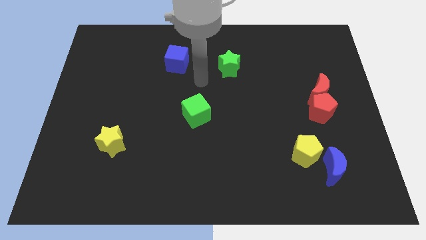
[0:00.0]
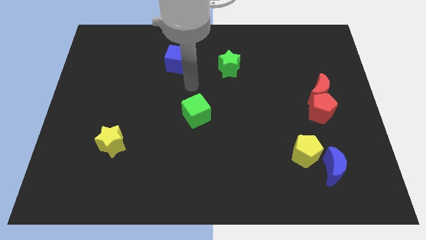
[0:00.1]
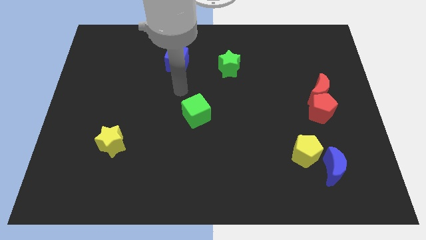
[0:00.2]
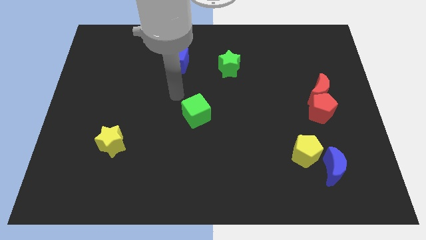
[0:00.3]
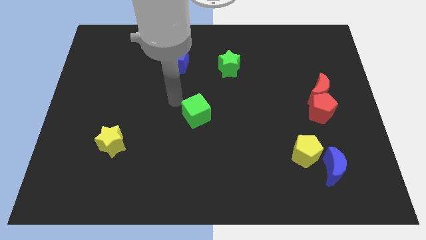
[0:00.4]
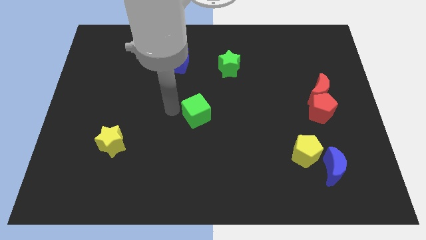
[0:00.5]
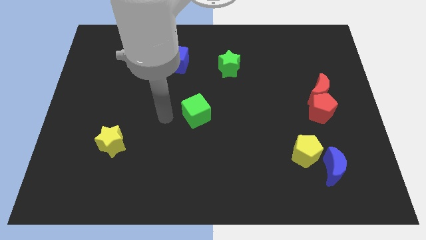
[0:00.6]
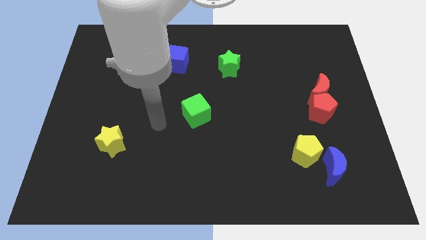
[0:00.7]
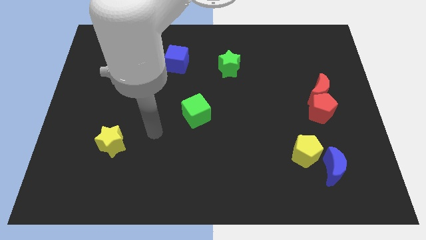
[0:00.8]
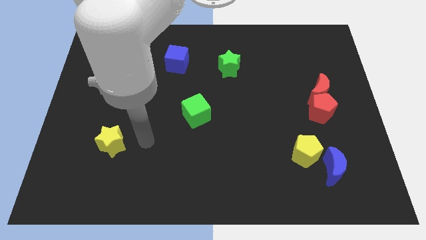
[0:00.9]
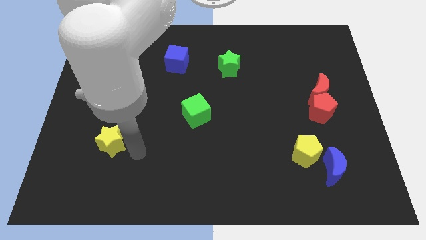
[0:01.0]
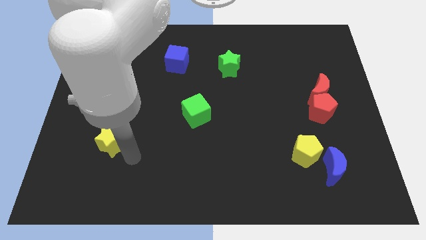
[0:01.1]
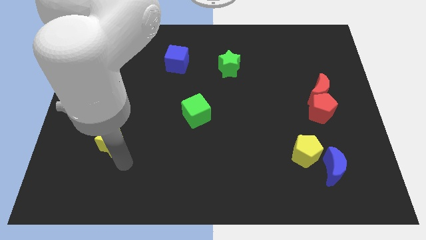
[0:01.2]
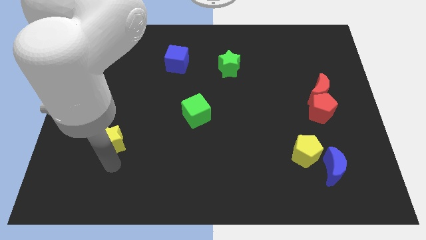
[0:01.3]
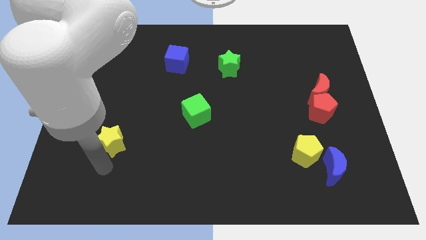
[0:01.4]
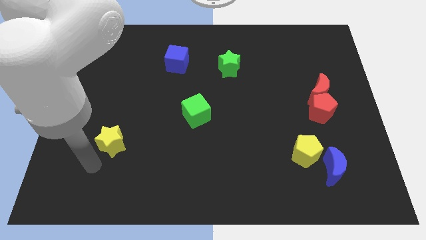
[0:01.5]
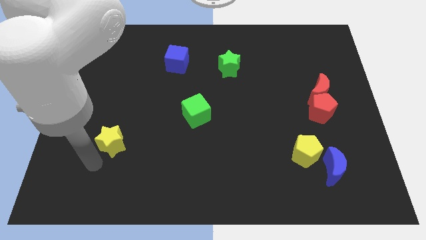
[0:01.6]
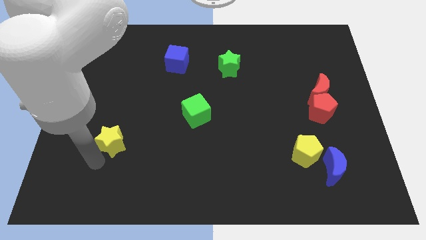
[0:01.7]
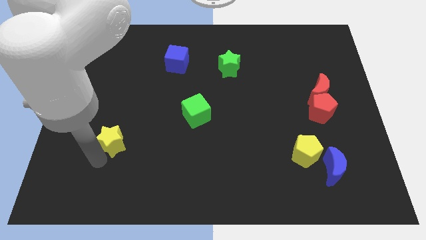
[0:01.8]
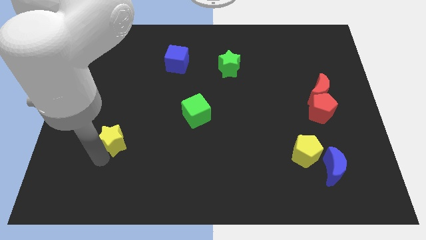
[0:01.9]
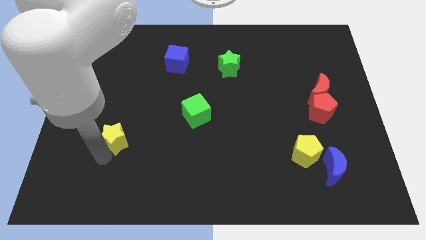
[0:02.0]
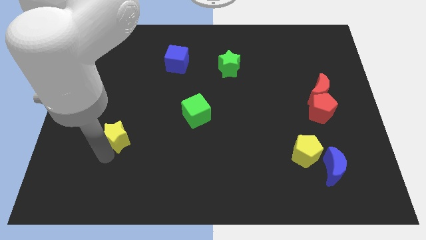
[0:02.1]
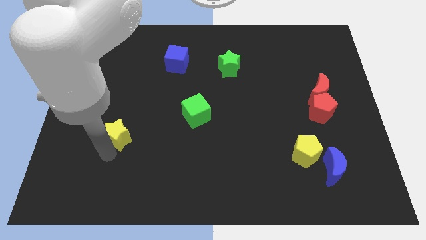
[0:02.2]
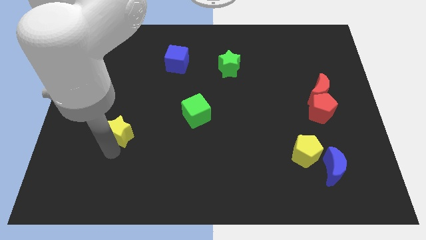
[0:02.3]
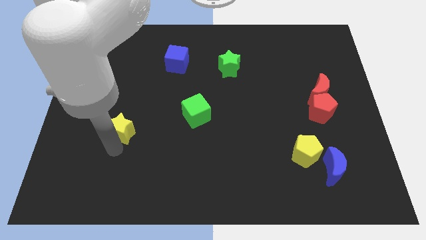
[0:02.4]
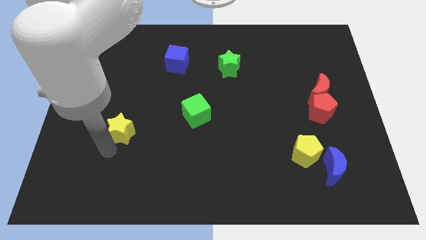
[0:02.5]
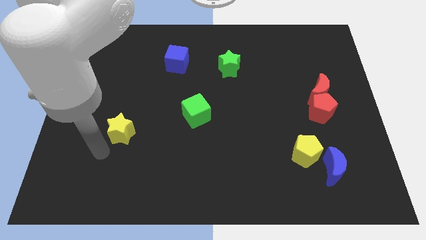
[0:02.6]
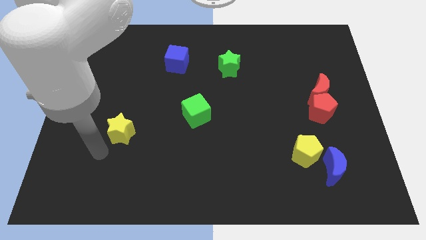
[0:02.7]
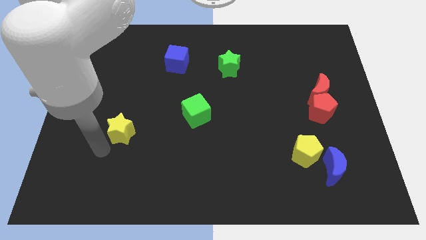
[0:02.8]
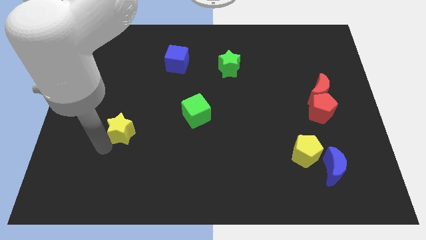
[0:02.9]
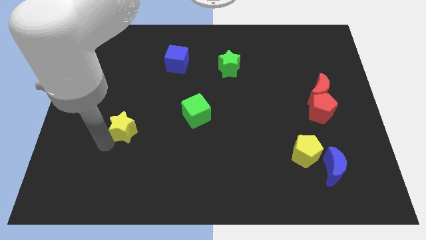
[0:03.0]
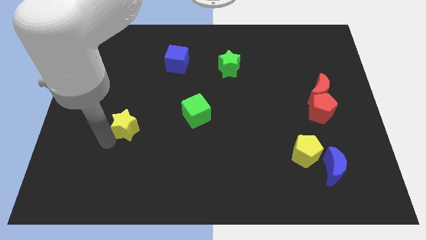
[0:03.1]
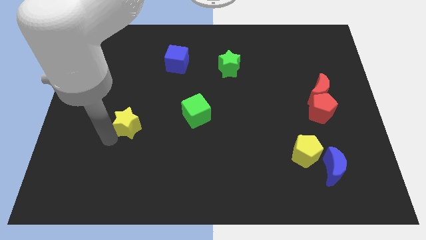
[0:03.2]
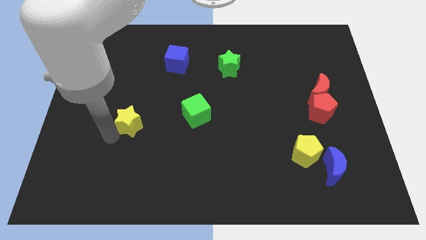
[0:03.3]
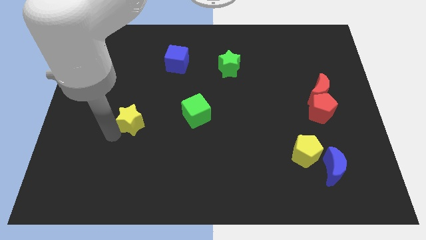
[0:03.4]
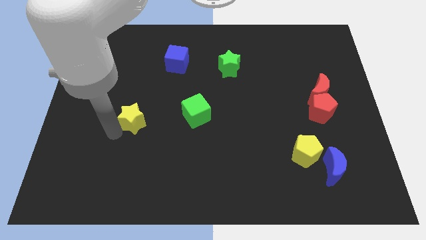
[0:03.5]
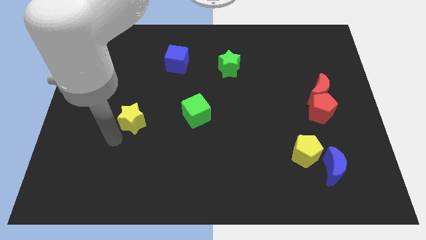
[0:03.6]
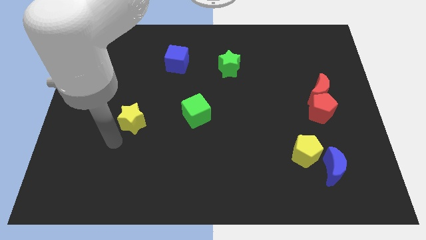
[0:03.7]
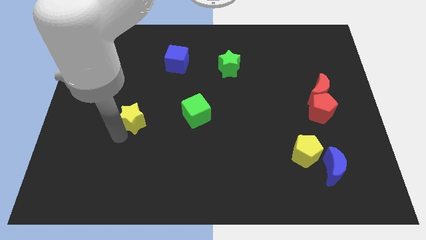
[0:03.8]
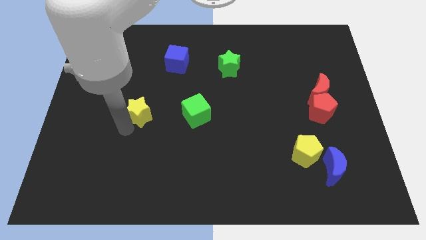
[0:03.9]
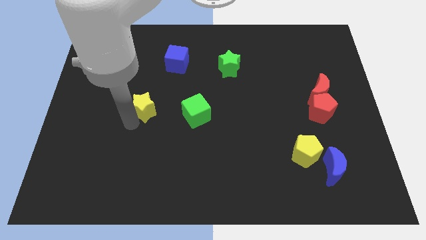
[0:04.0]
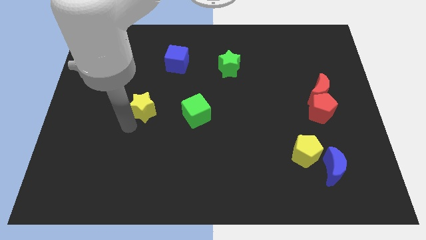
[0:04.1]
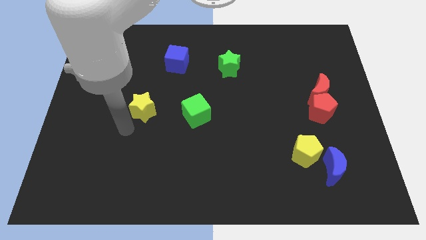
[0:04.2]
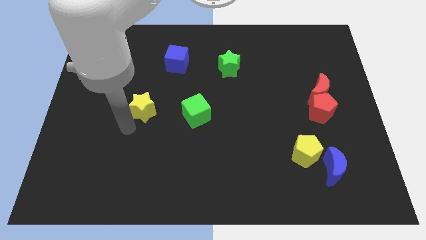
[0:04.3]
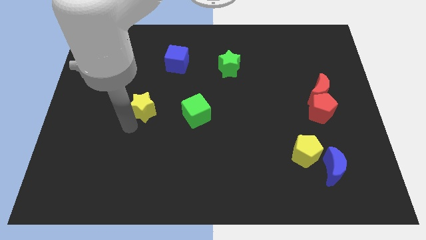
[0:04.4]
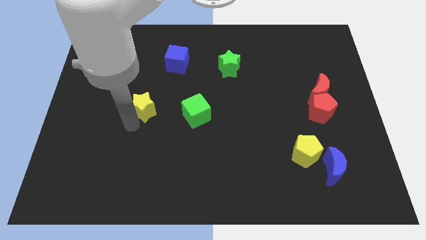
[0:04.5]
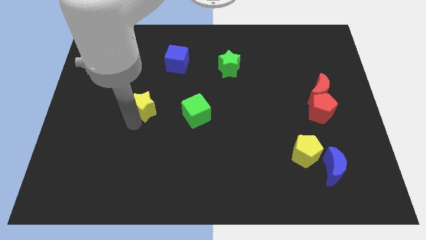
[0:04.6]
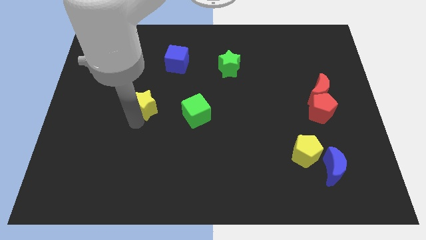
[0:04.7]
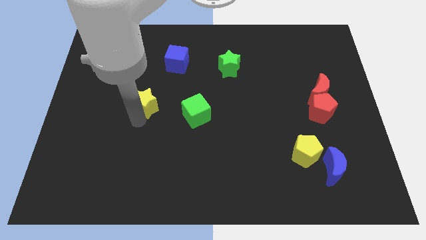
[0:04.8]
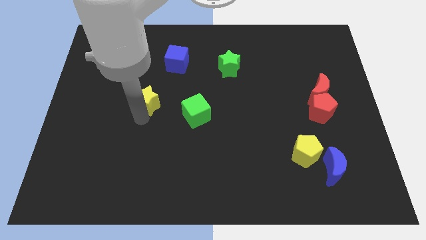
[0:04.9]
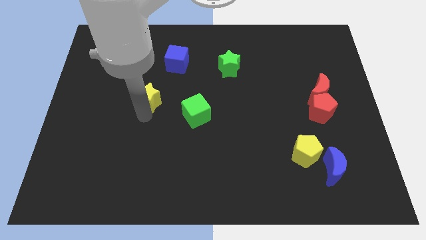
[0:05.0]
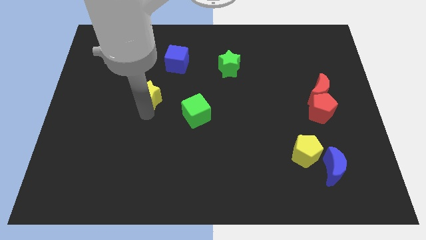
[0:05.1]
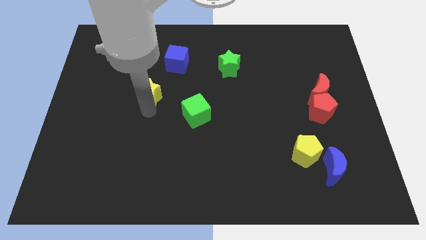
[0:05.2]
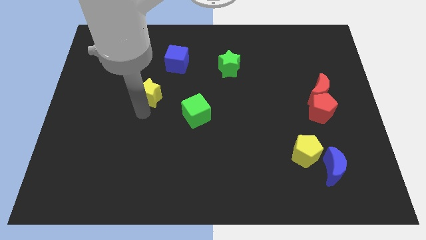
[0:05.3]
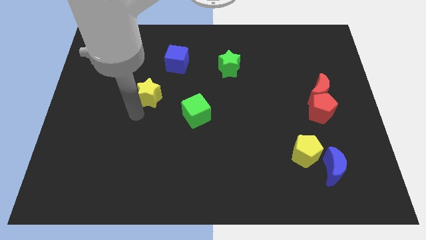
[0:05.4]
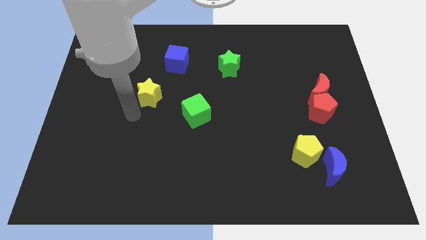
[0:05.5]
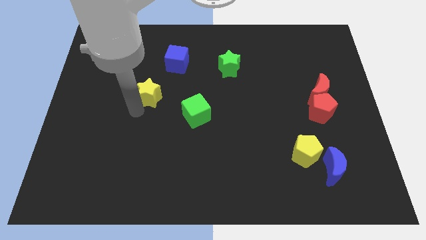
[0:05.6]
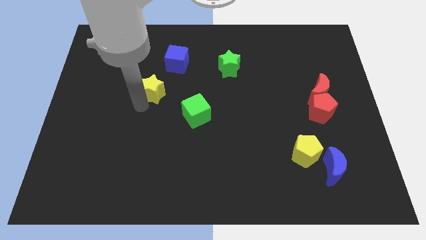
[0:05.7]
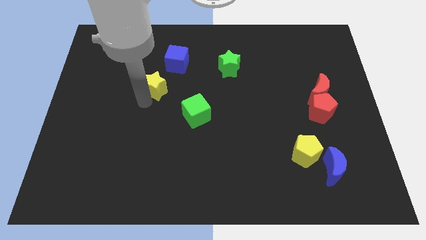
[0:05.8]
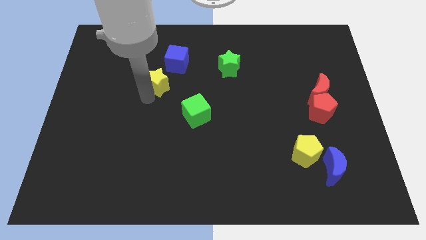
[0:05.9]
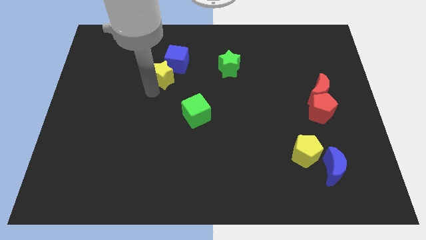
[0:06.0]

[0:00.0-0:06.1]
push the yellow star to the blue cube

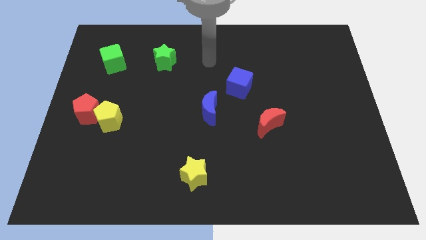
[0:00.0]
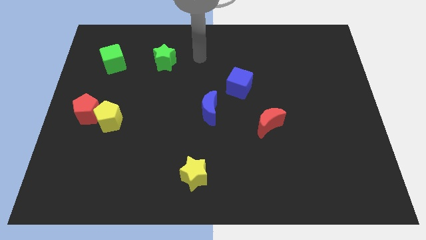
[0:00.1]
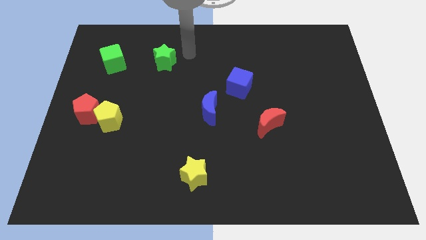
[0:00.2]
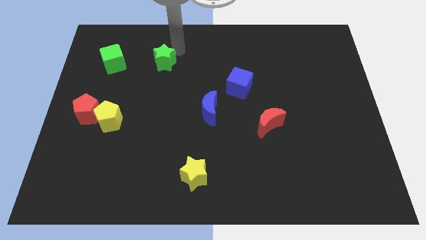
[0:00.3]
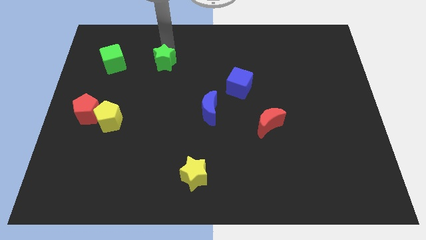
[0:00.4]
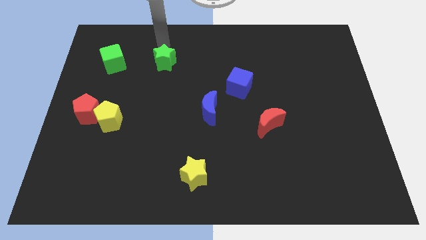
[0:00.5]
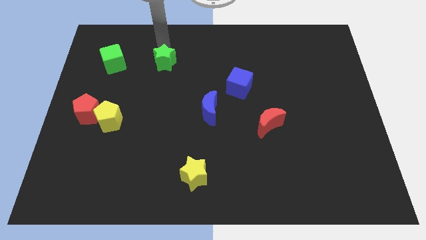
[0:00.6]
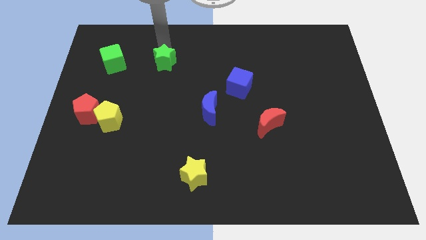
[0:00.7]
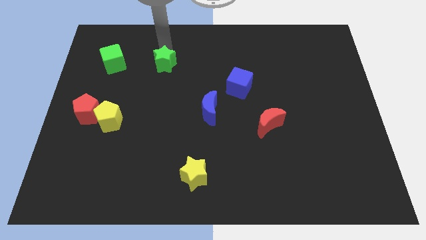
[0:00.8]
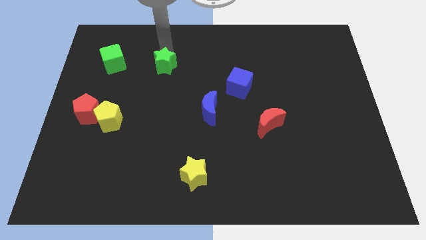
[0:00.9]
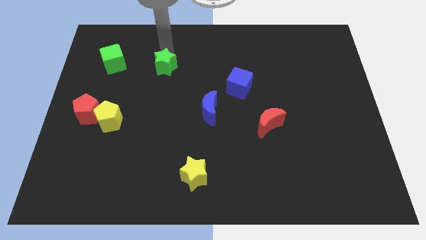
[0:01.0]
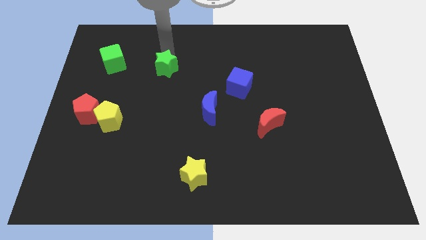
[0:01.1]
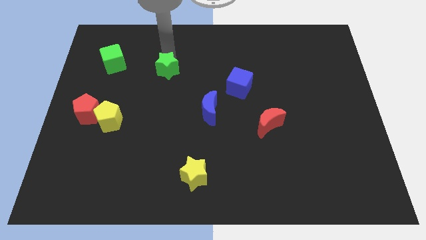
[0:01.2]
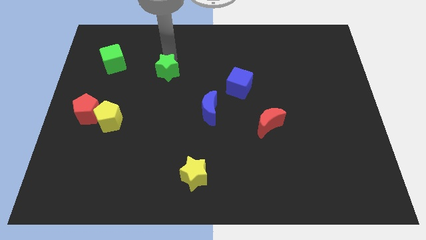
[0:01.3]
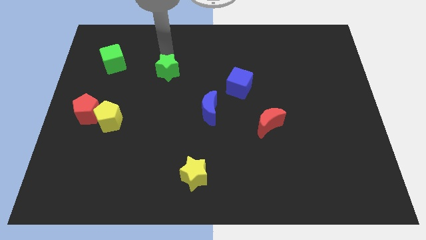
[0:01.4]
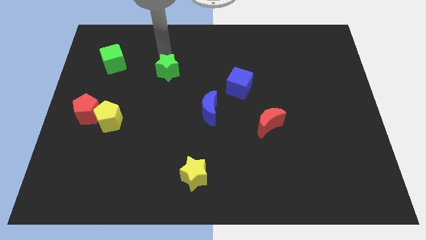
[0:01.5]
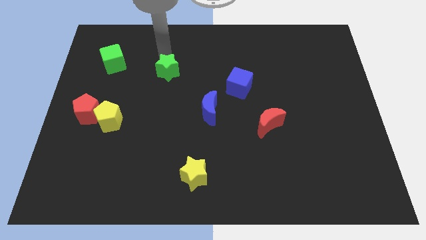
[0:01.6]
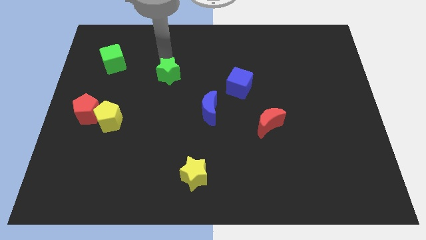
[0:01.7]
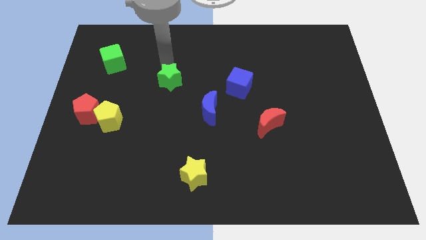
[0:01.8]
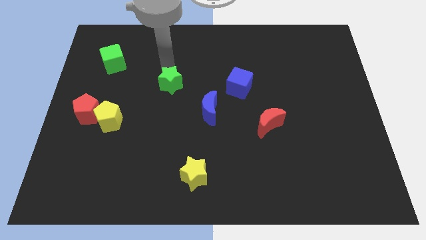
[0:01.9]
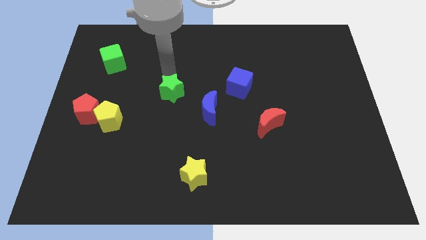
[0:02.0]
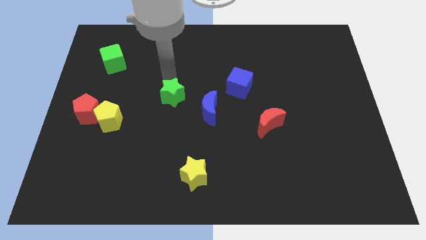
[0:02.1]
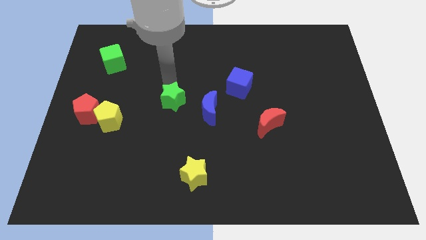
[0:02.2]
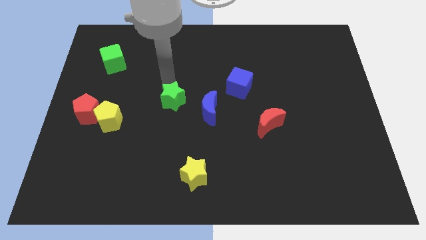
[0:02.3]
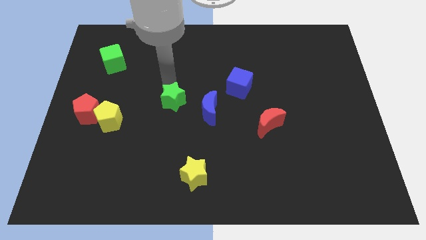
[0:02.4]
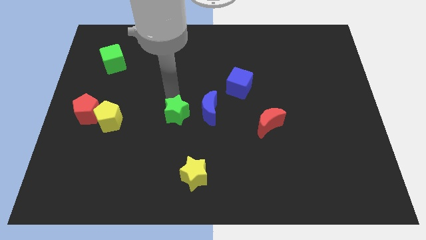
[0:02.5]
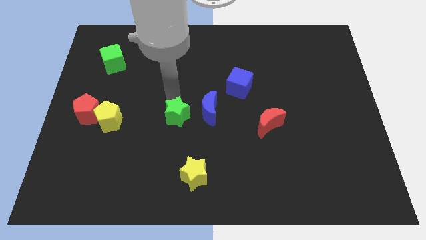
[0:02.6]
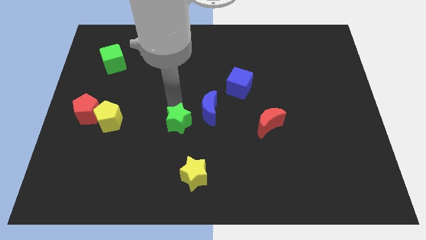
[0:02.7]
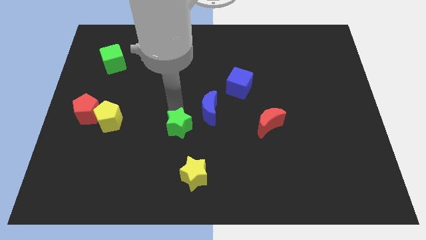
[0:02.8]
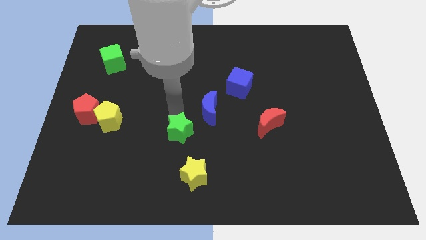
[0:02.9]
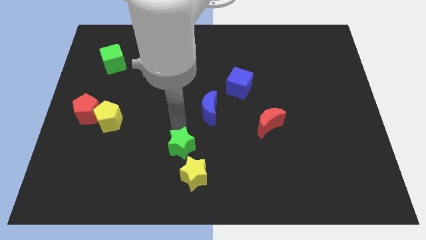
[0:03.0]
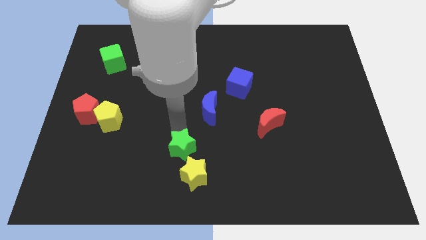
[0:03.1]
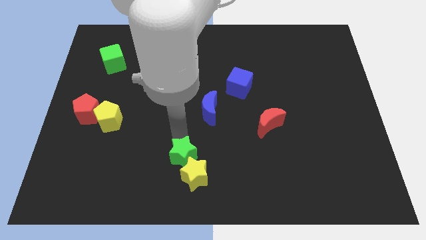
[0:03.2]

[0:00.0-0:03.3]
push the green star towards the yellow star
